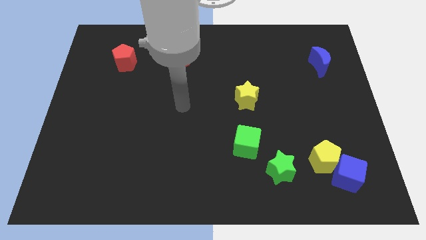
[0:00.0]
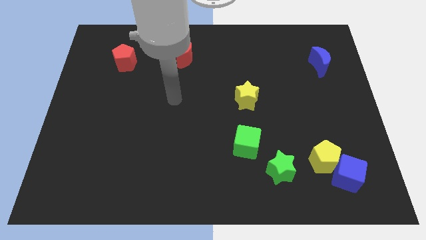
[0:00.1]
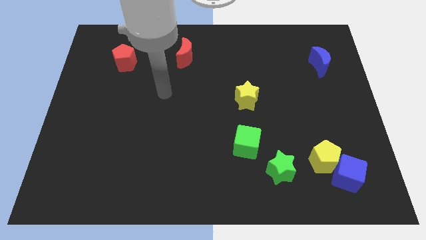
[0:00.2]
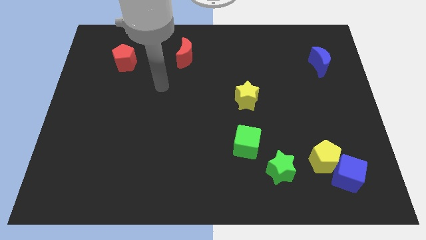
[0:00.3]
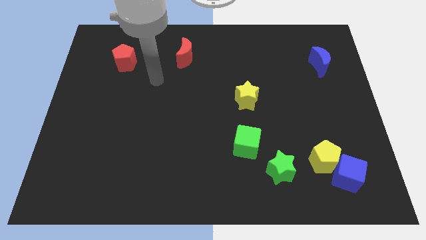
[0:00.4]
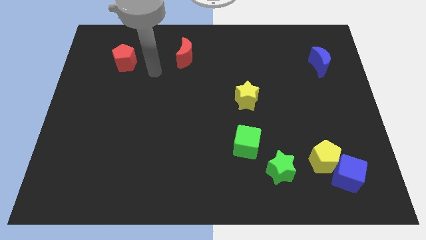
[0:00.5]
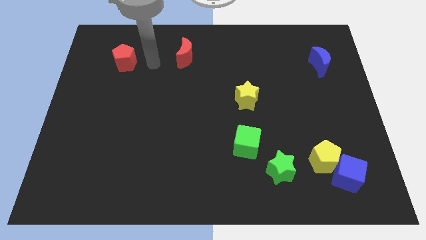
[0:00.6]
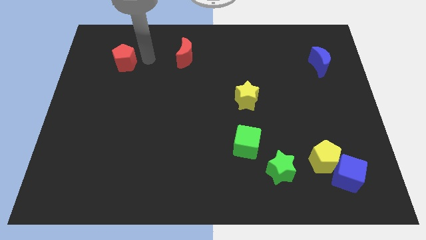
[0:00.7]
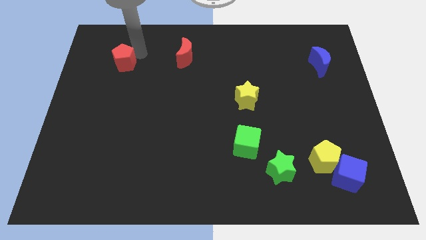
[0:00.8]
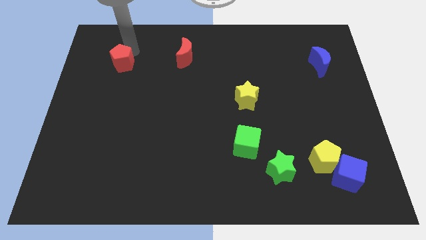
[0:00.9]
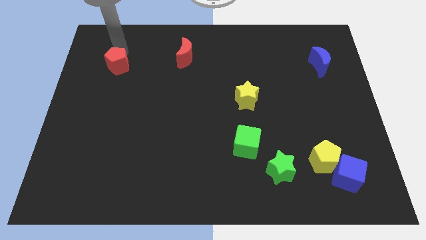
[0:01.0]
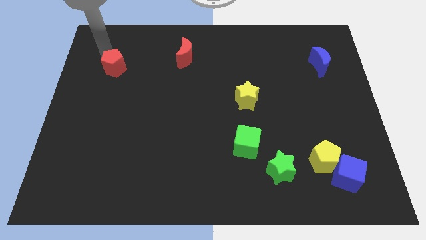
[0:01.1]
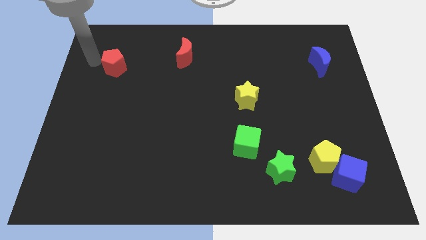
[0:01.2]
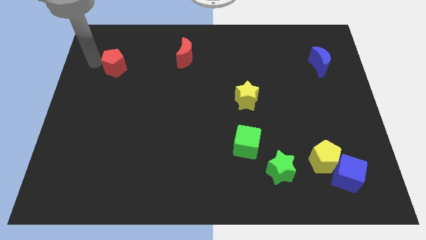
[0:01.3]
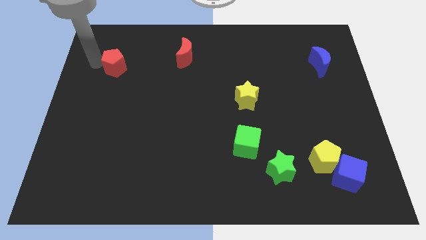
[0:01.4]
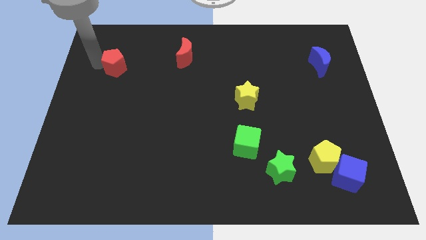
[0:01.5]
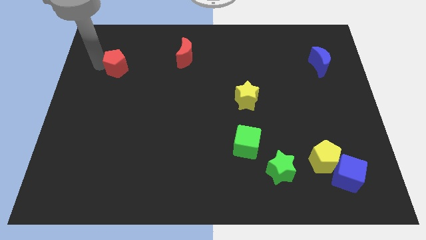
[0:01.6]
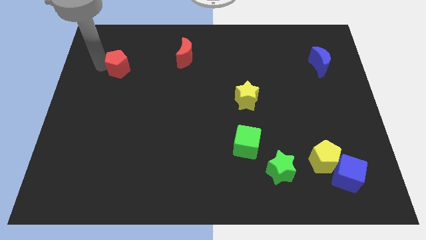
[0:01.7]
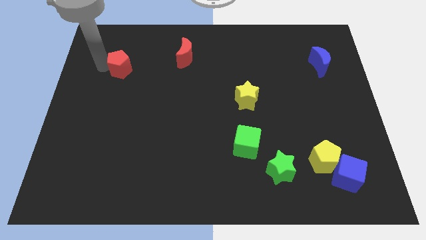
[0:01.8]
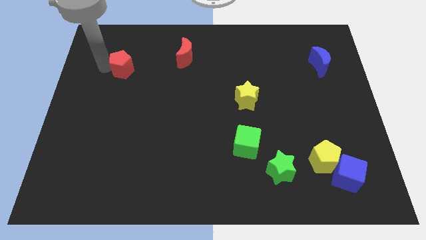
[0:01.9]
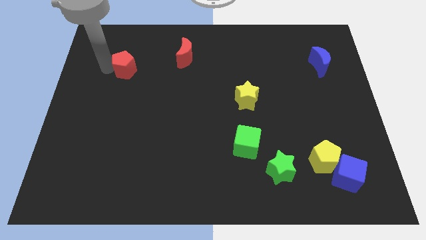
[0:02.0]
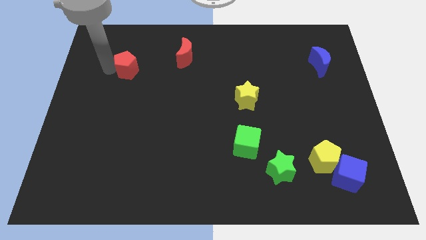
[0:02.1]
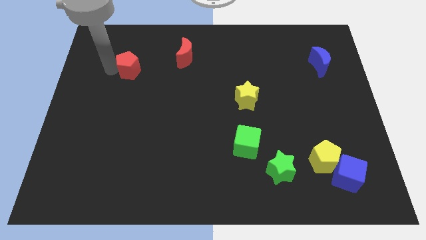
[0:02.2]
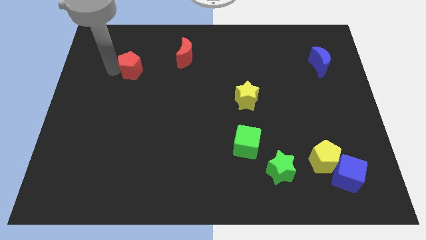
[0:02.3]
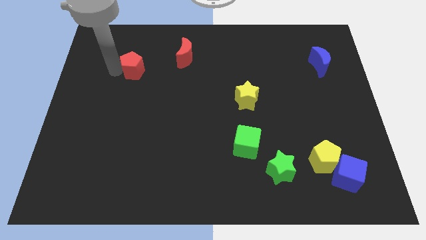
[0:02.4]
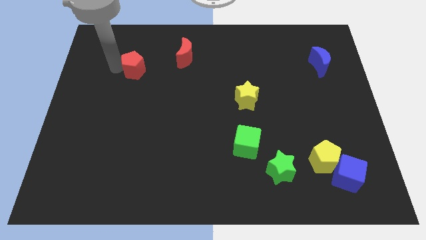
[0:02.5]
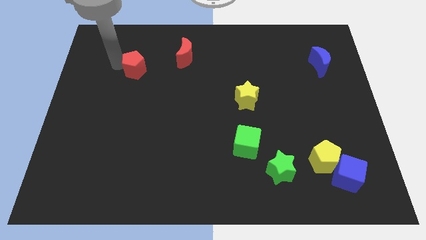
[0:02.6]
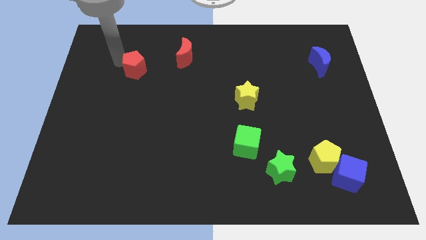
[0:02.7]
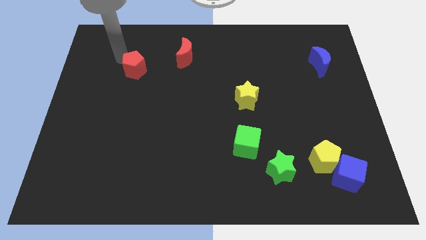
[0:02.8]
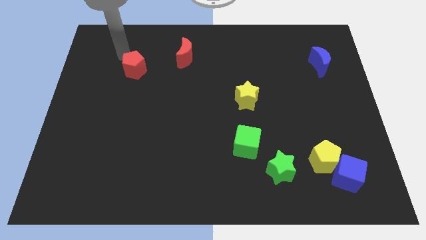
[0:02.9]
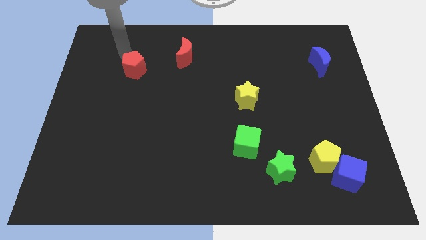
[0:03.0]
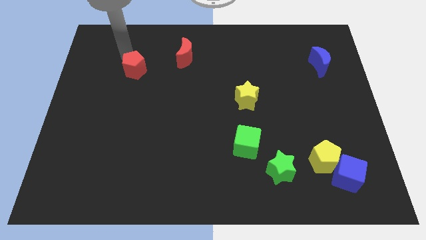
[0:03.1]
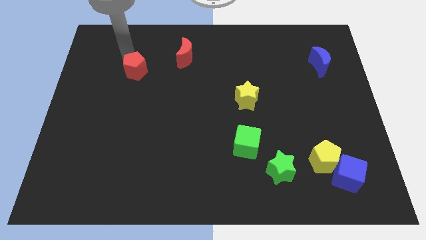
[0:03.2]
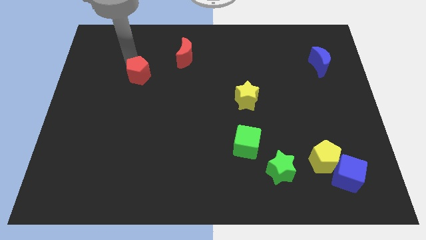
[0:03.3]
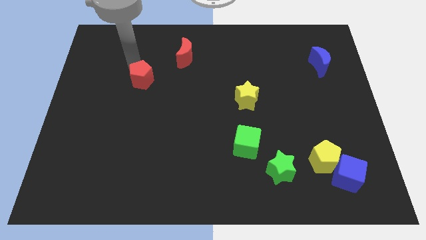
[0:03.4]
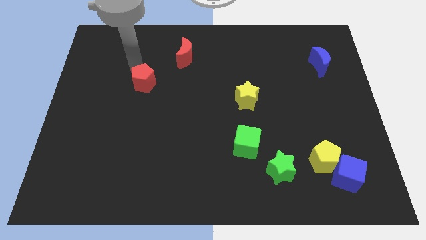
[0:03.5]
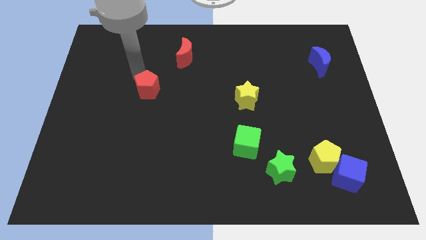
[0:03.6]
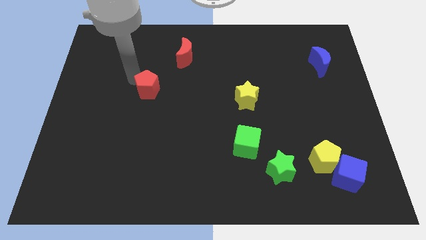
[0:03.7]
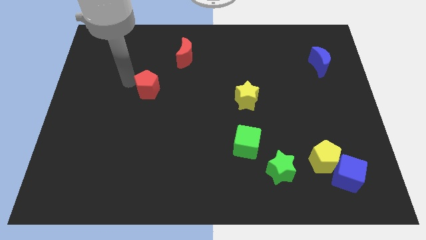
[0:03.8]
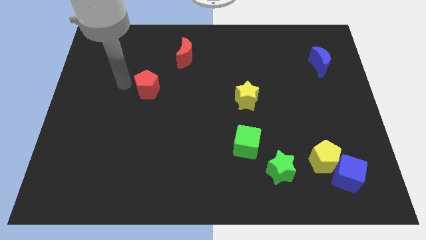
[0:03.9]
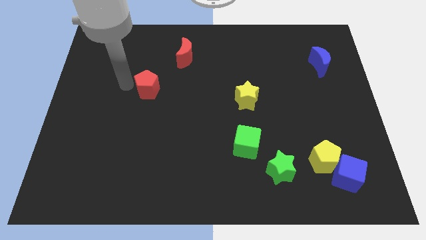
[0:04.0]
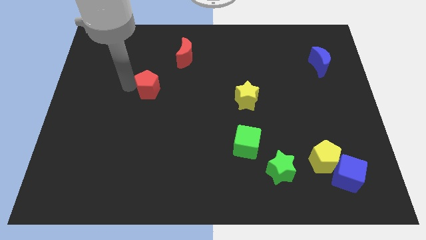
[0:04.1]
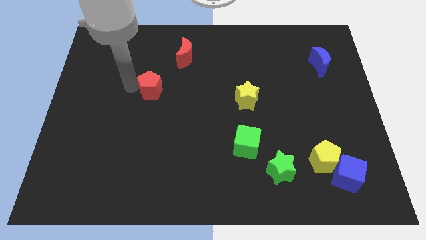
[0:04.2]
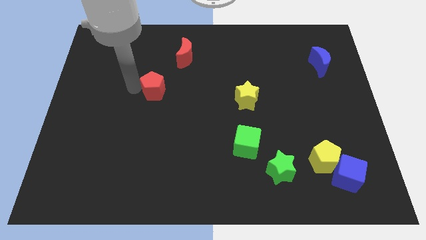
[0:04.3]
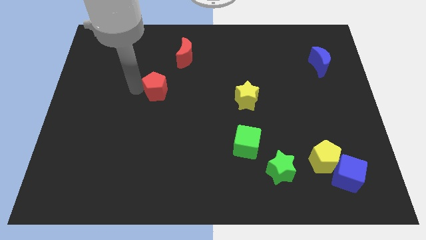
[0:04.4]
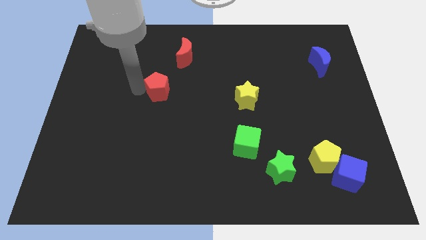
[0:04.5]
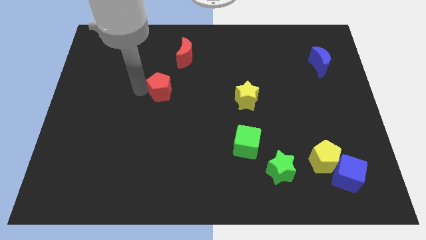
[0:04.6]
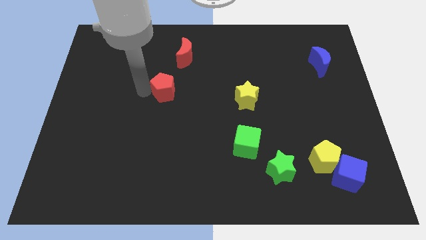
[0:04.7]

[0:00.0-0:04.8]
push the red pentagon to the center of the board

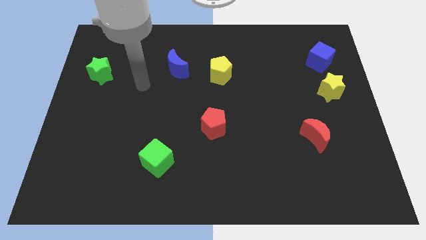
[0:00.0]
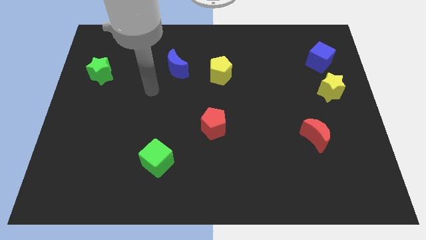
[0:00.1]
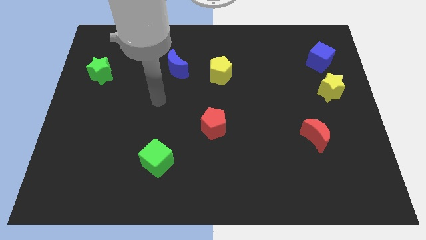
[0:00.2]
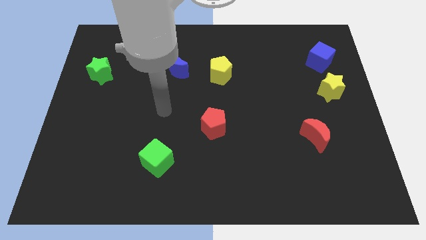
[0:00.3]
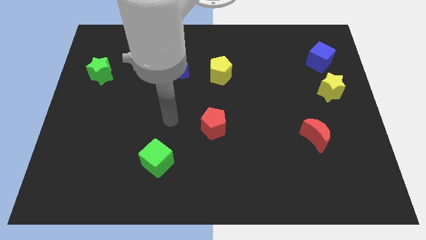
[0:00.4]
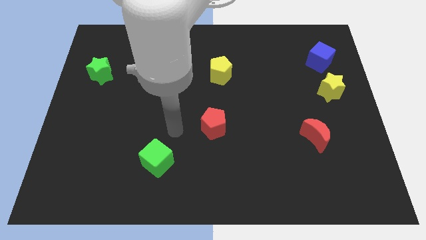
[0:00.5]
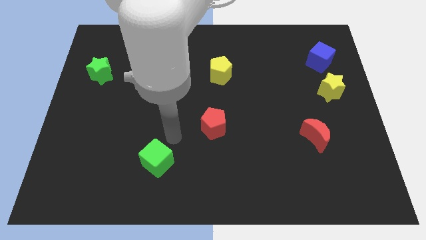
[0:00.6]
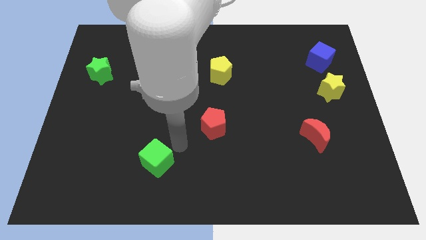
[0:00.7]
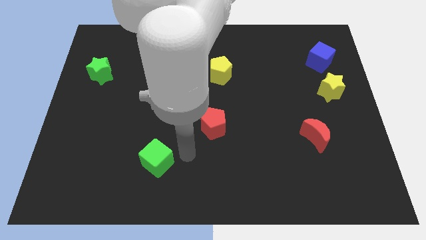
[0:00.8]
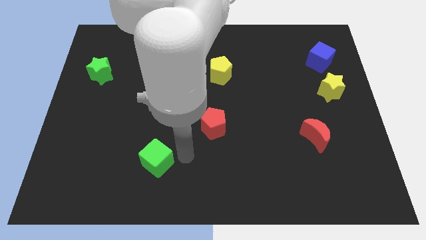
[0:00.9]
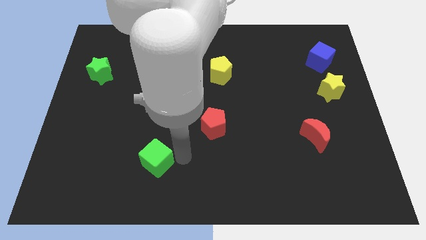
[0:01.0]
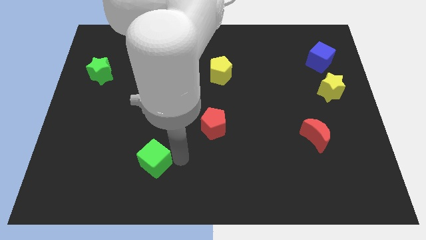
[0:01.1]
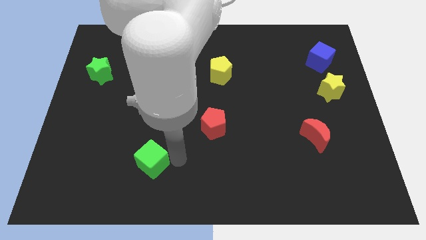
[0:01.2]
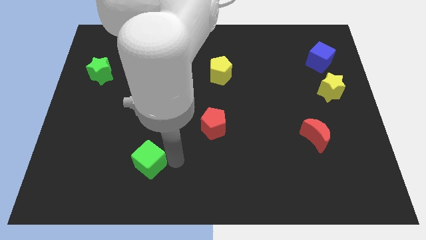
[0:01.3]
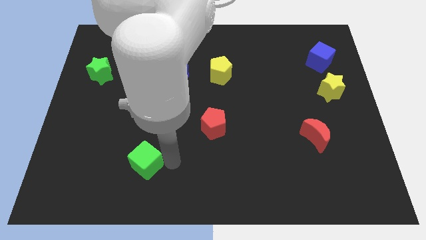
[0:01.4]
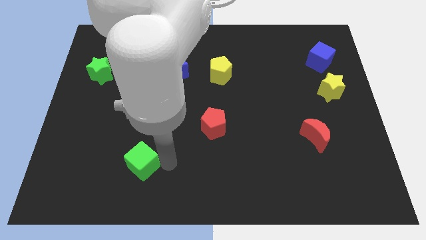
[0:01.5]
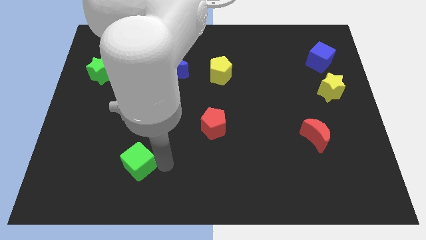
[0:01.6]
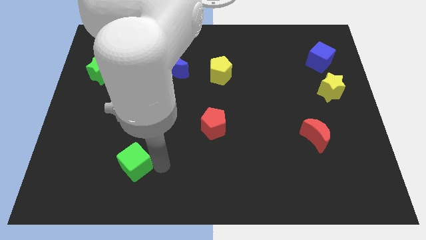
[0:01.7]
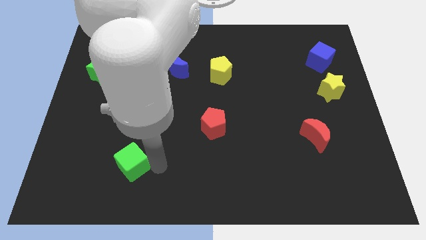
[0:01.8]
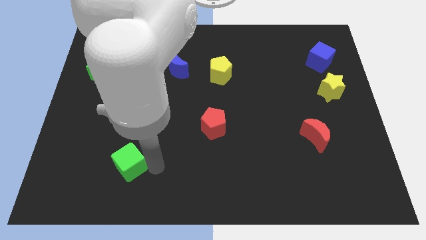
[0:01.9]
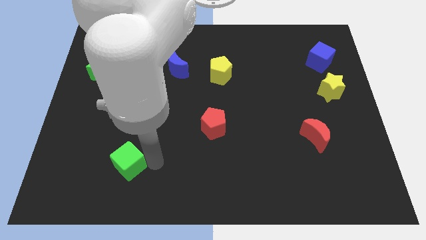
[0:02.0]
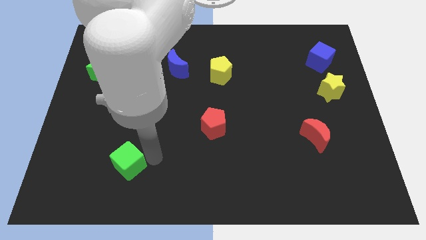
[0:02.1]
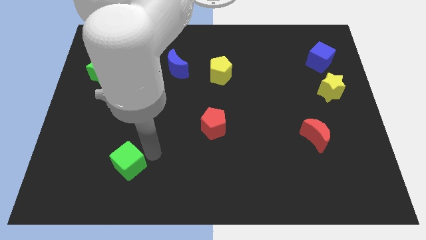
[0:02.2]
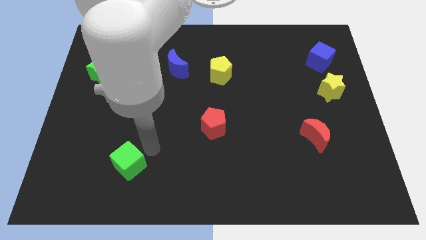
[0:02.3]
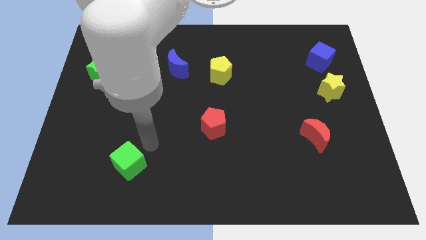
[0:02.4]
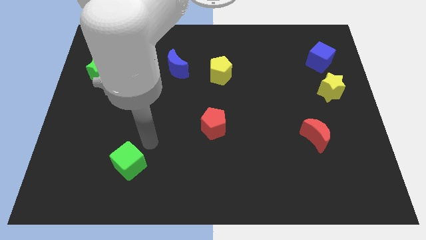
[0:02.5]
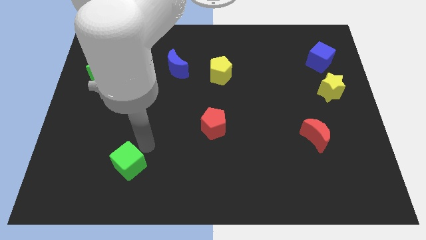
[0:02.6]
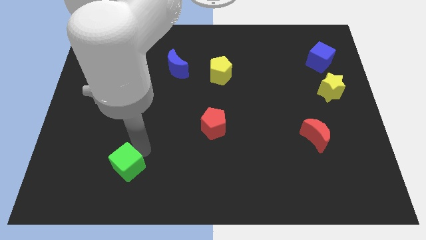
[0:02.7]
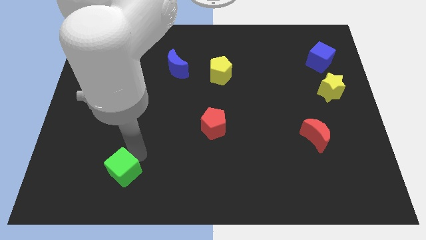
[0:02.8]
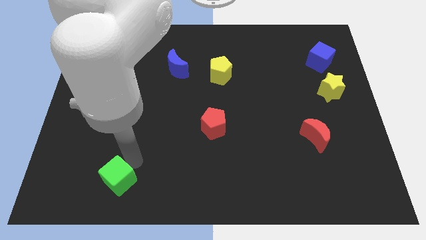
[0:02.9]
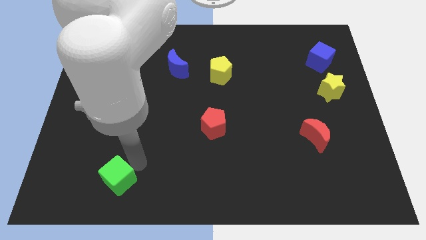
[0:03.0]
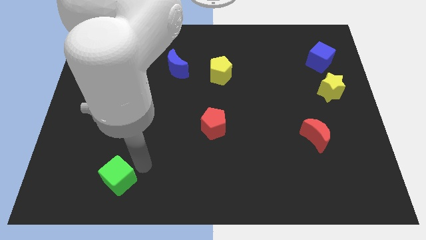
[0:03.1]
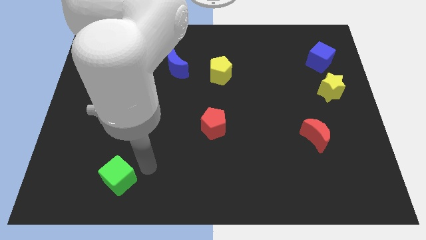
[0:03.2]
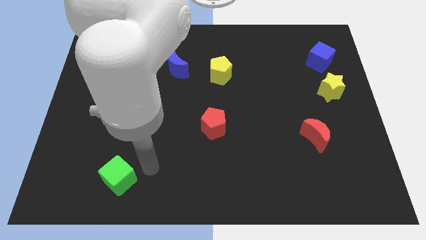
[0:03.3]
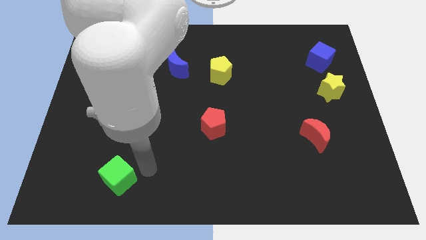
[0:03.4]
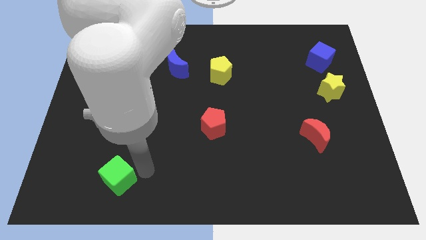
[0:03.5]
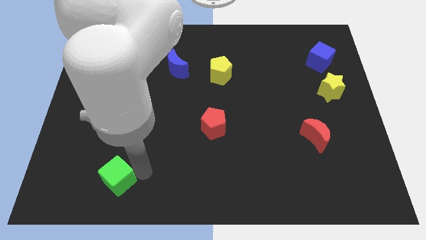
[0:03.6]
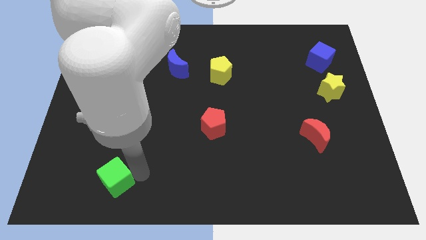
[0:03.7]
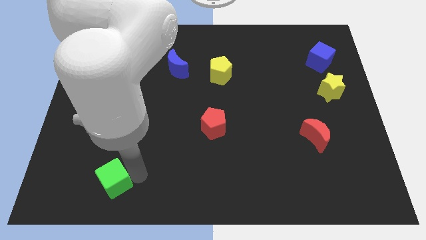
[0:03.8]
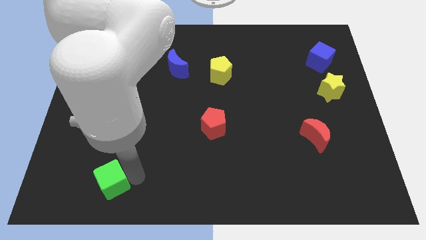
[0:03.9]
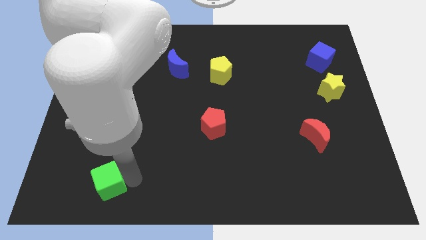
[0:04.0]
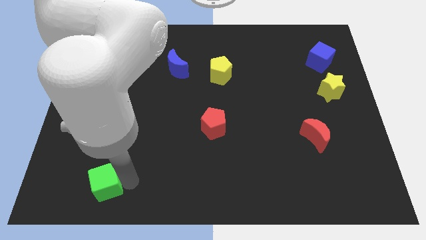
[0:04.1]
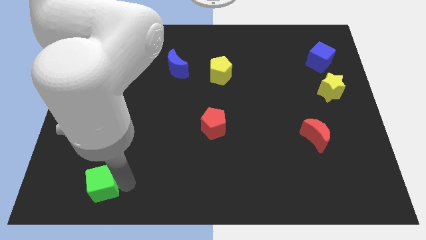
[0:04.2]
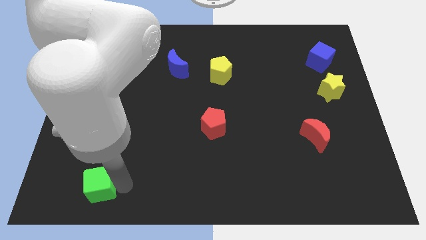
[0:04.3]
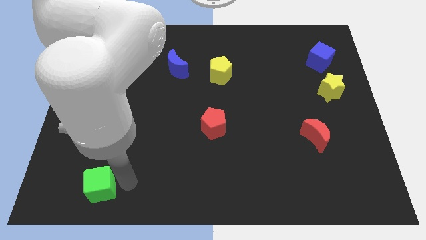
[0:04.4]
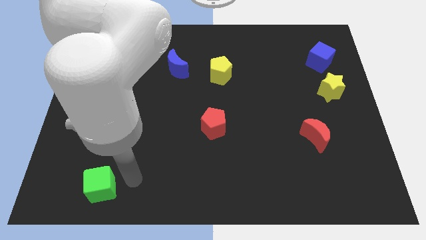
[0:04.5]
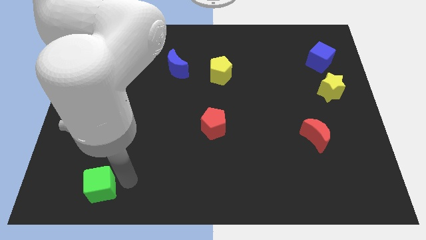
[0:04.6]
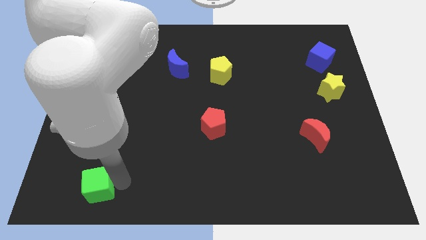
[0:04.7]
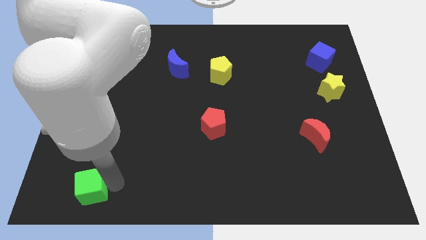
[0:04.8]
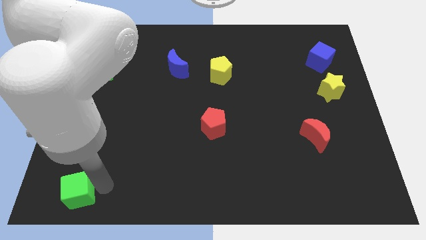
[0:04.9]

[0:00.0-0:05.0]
slide the green cube to the bottom left
